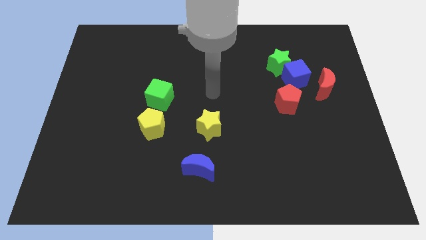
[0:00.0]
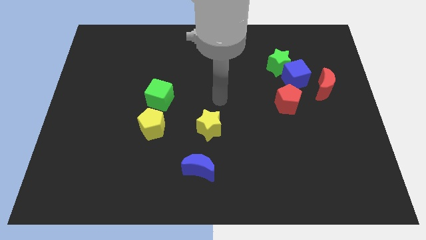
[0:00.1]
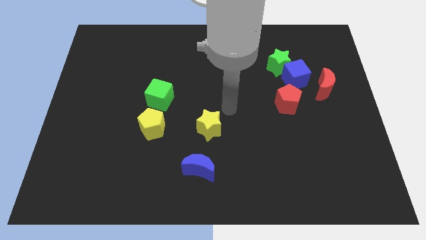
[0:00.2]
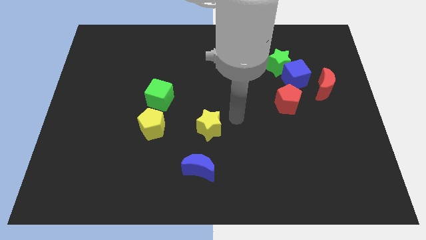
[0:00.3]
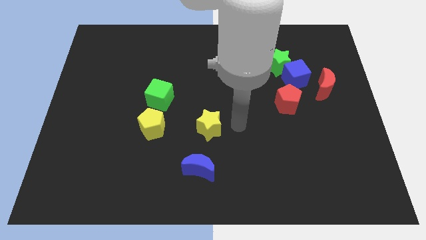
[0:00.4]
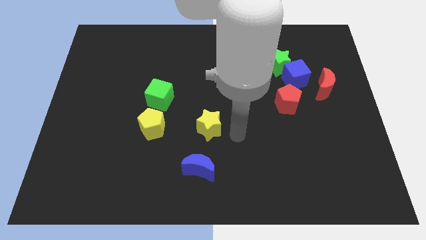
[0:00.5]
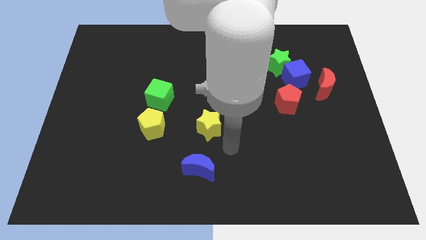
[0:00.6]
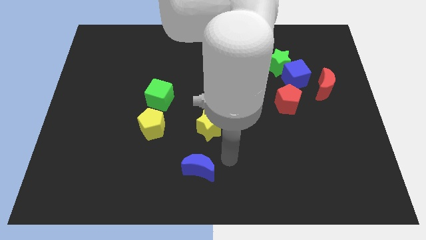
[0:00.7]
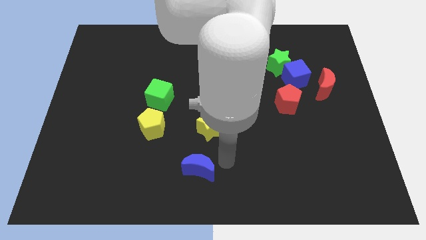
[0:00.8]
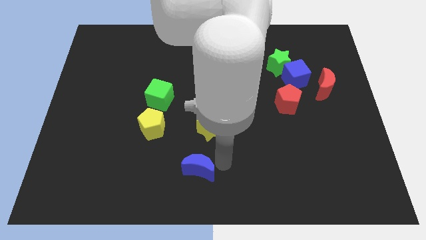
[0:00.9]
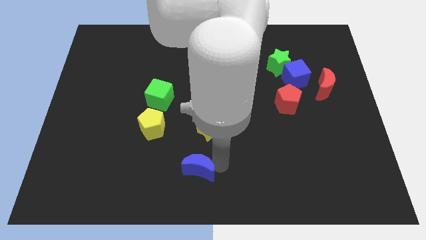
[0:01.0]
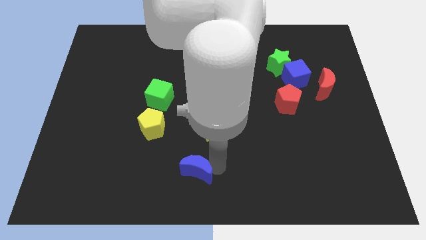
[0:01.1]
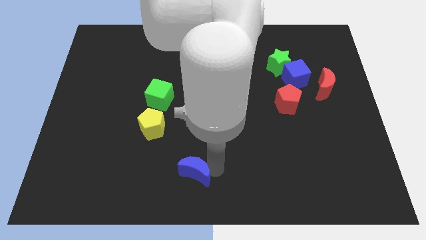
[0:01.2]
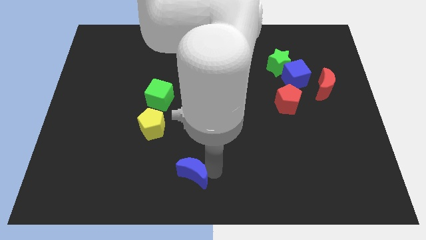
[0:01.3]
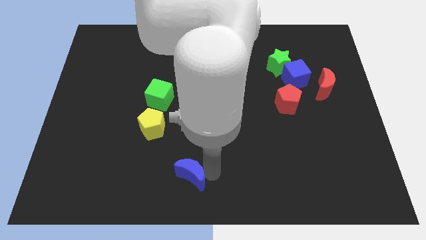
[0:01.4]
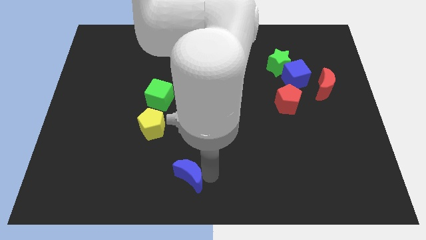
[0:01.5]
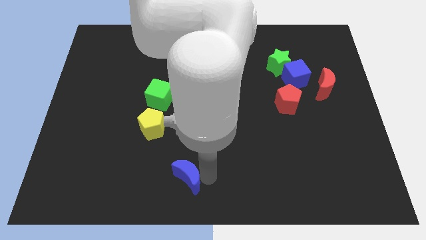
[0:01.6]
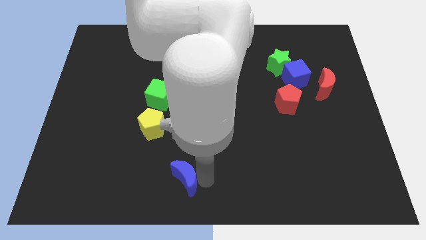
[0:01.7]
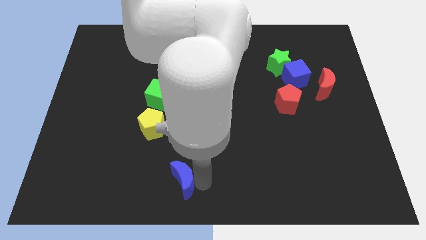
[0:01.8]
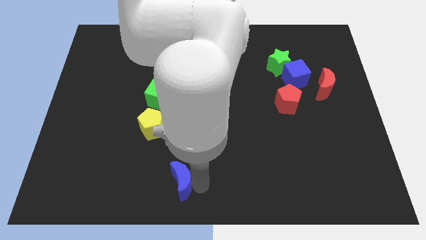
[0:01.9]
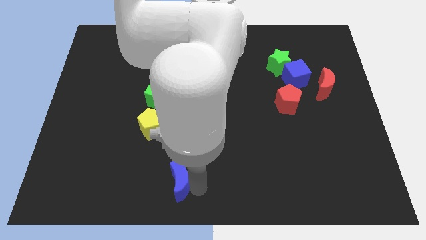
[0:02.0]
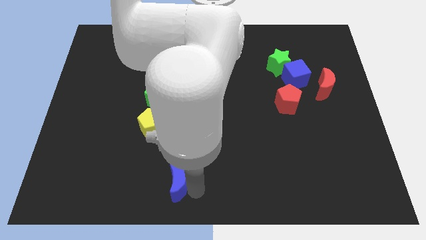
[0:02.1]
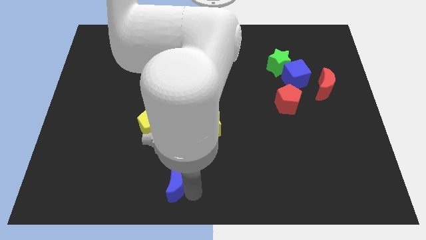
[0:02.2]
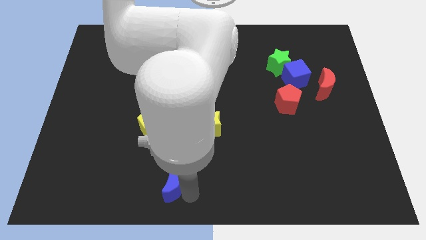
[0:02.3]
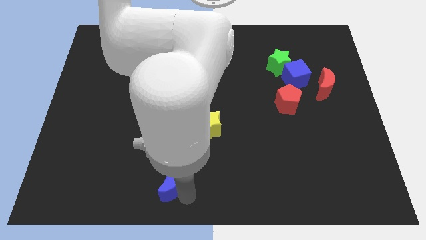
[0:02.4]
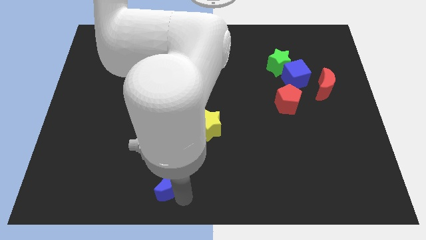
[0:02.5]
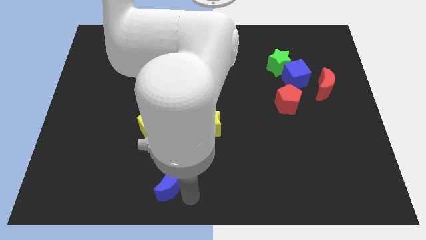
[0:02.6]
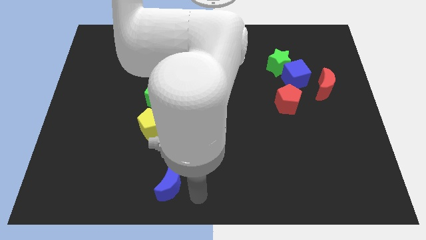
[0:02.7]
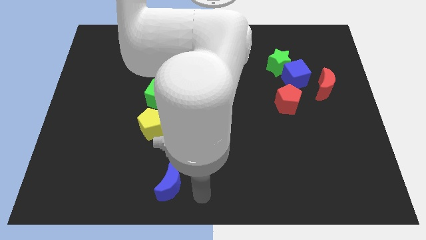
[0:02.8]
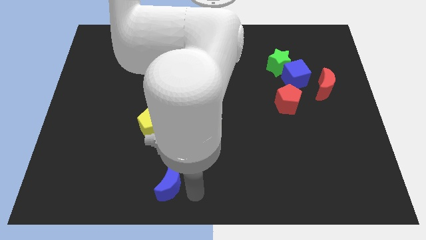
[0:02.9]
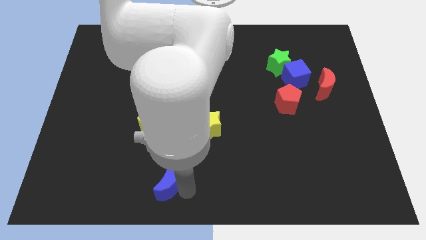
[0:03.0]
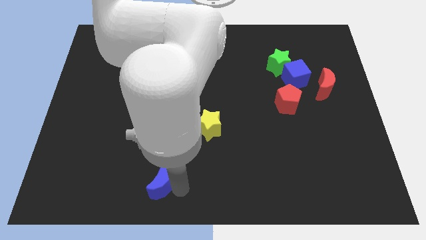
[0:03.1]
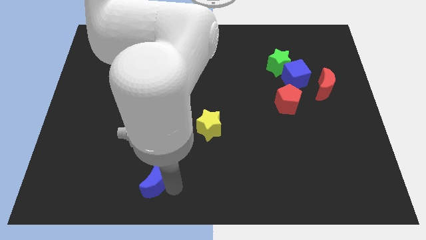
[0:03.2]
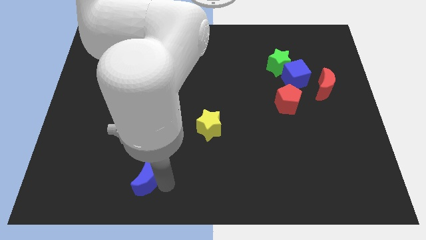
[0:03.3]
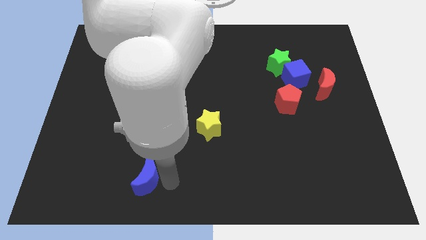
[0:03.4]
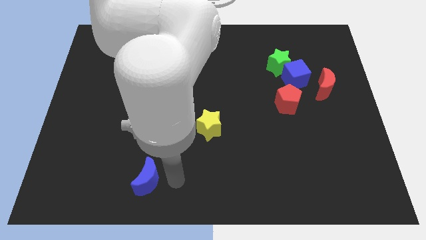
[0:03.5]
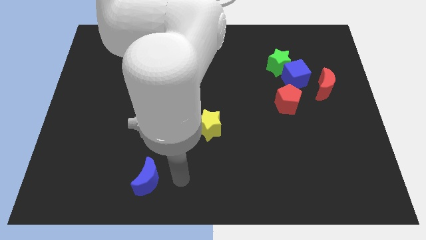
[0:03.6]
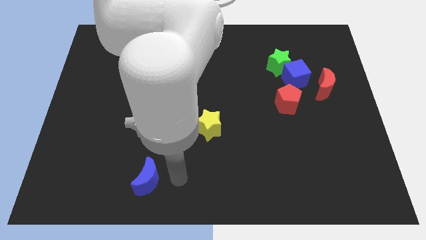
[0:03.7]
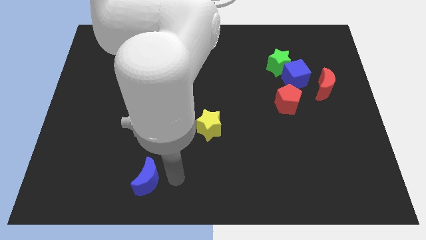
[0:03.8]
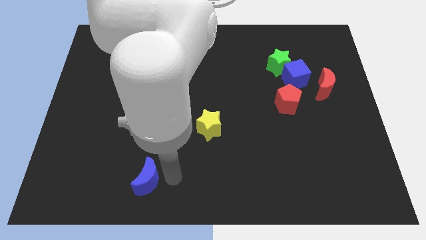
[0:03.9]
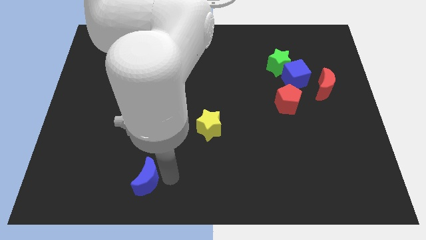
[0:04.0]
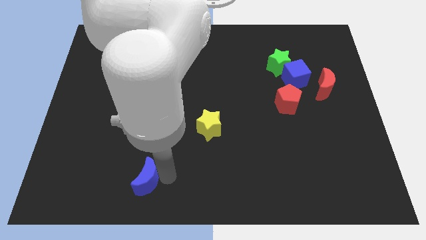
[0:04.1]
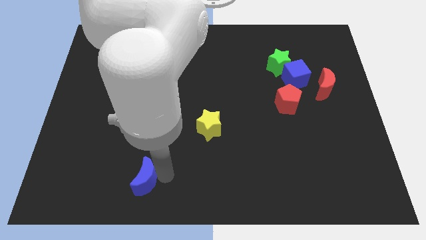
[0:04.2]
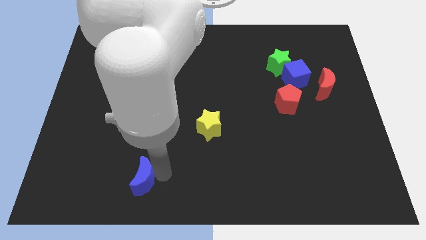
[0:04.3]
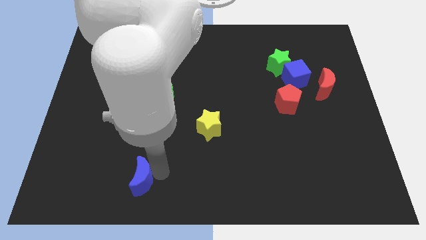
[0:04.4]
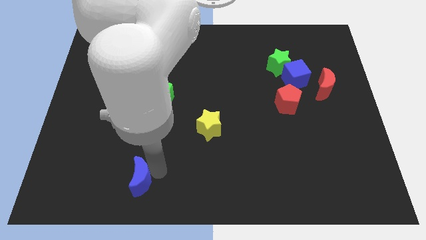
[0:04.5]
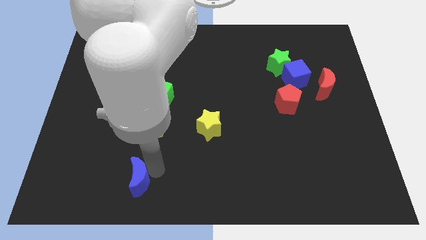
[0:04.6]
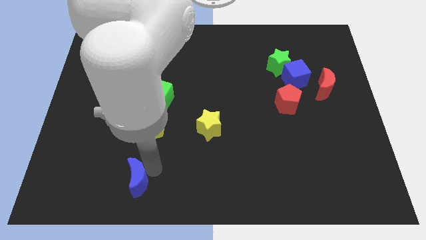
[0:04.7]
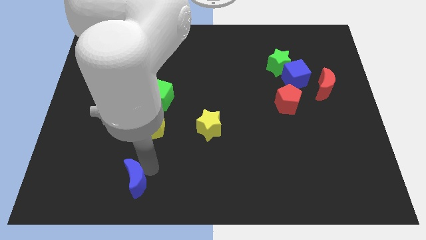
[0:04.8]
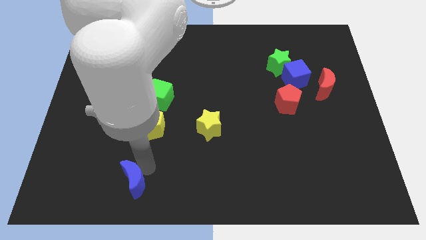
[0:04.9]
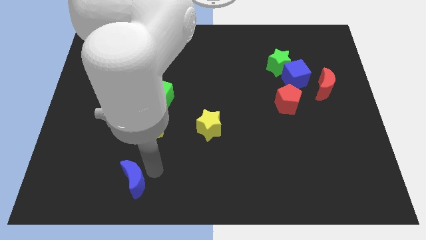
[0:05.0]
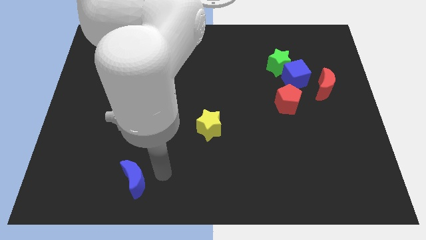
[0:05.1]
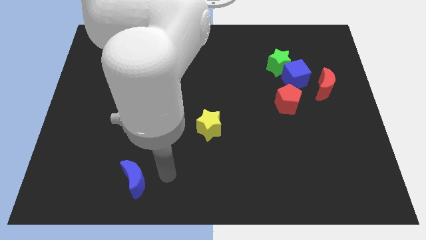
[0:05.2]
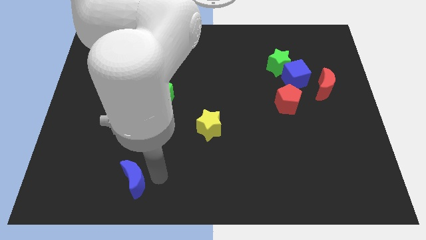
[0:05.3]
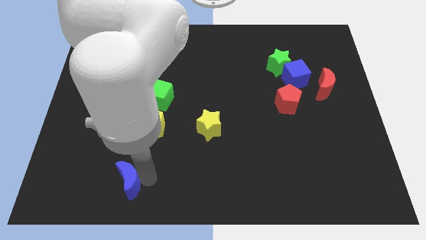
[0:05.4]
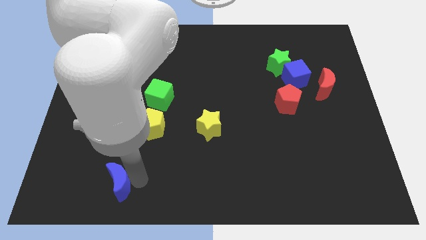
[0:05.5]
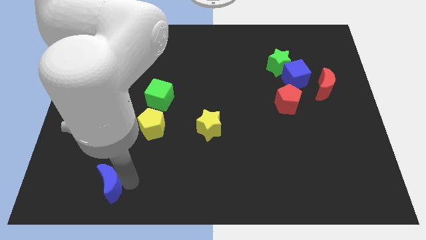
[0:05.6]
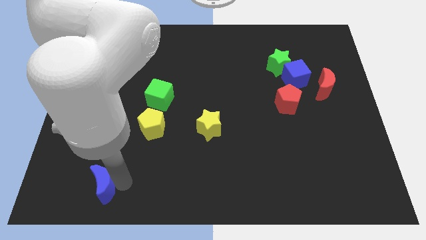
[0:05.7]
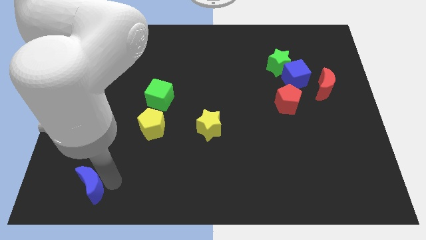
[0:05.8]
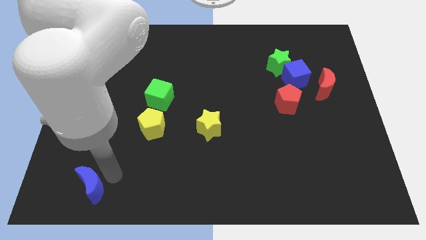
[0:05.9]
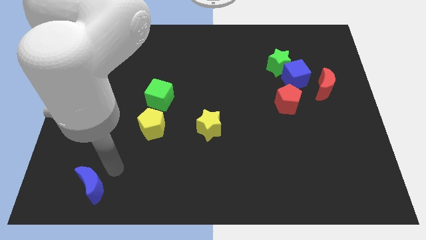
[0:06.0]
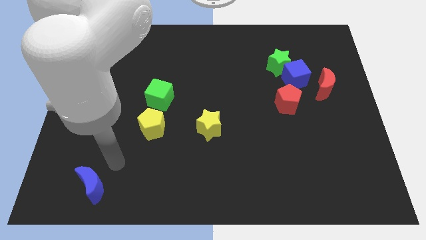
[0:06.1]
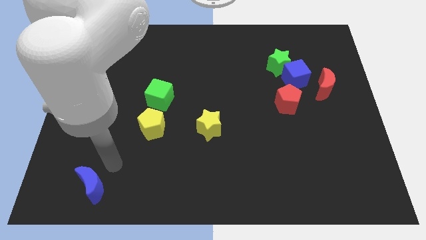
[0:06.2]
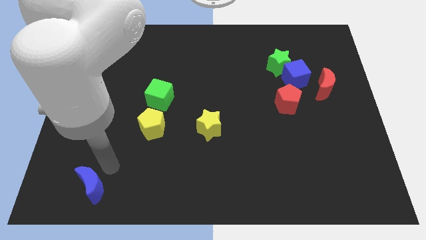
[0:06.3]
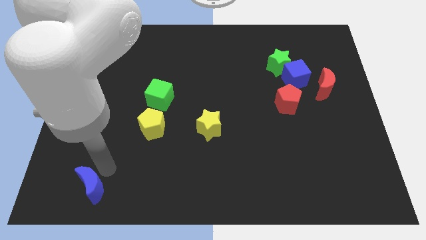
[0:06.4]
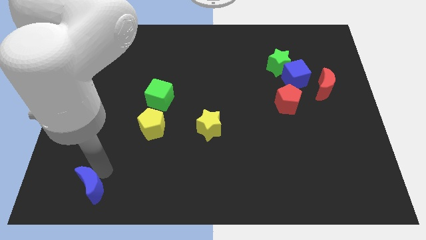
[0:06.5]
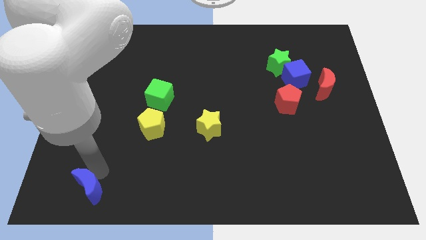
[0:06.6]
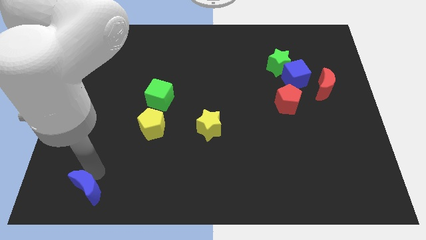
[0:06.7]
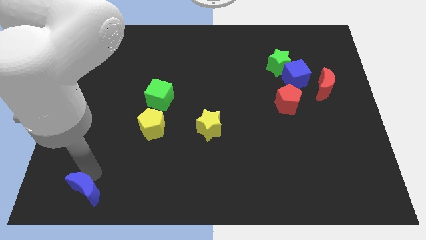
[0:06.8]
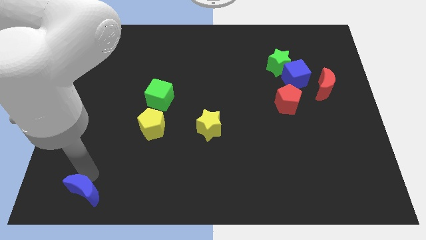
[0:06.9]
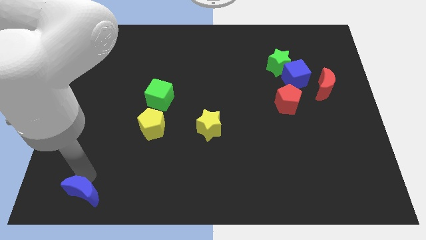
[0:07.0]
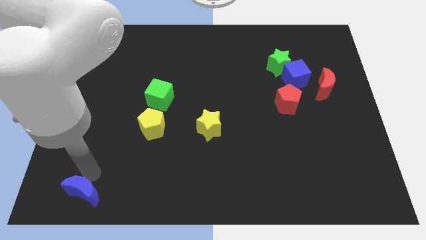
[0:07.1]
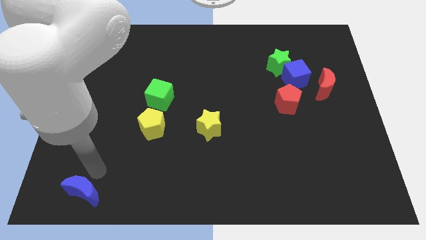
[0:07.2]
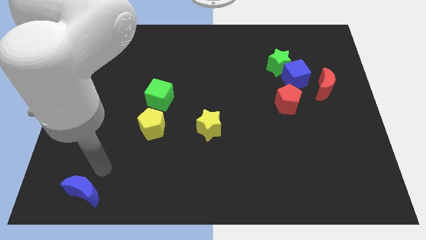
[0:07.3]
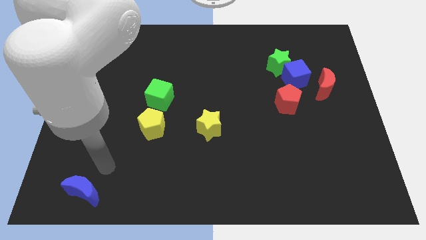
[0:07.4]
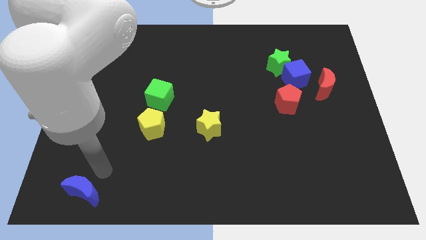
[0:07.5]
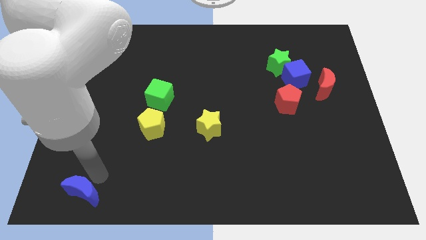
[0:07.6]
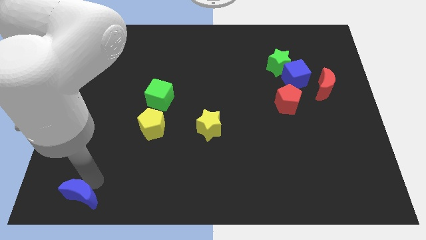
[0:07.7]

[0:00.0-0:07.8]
slide the blue moon to the bottom left of the board

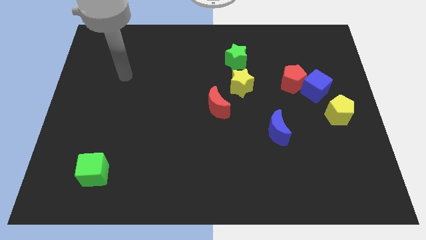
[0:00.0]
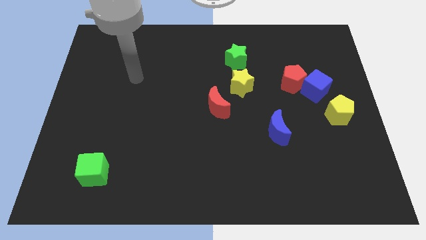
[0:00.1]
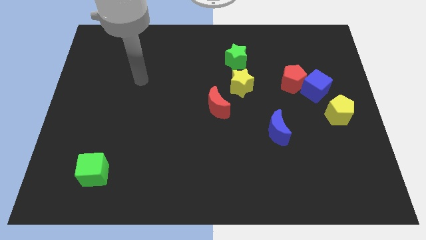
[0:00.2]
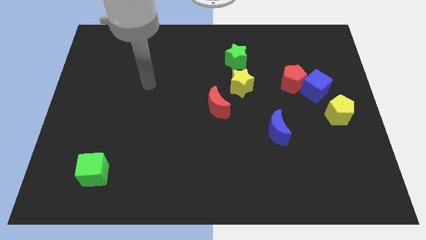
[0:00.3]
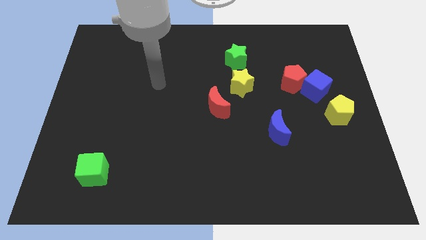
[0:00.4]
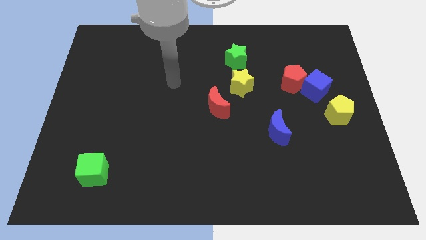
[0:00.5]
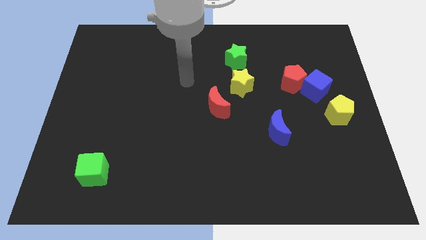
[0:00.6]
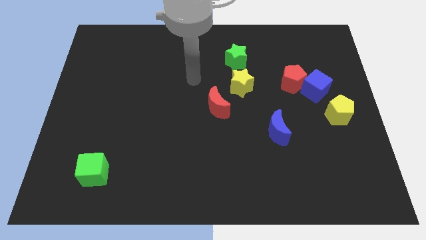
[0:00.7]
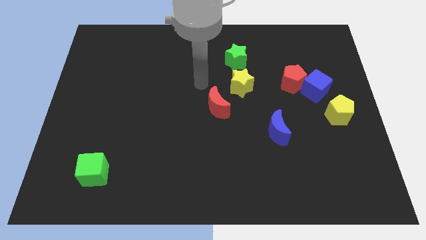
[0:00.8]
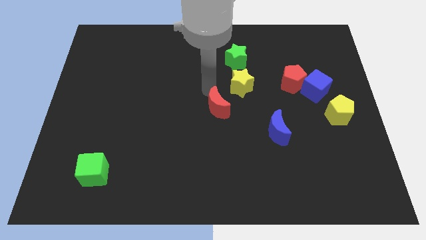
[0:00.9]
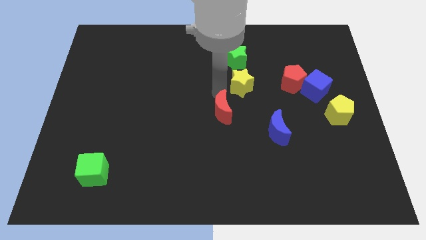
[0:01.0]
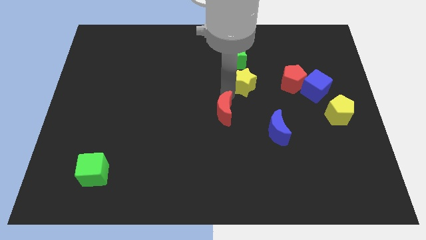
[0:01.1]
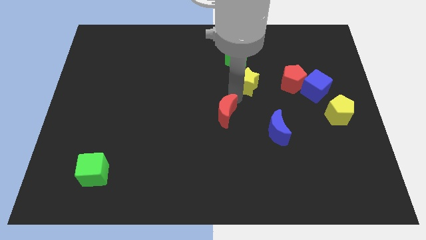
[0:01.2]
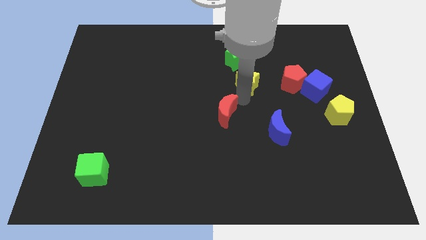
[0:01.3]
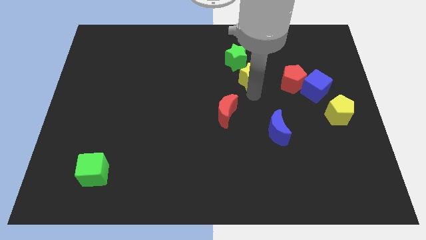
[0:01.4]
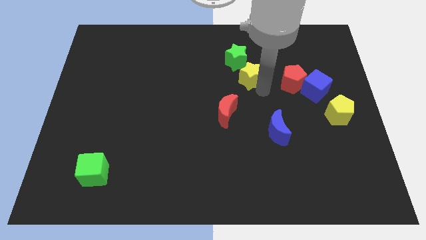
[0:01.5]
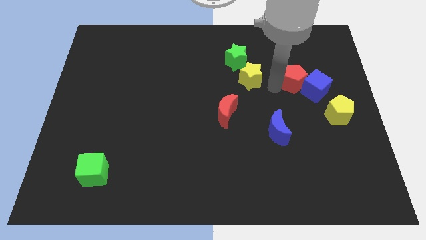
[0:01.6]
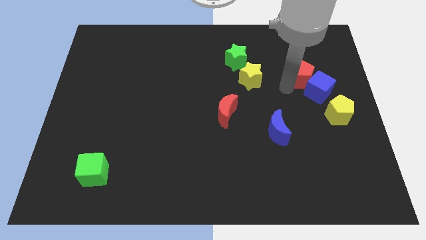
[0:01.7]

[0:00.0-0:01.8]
put the blue cube to the right side of the board
